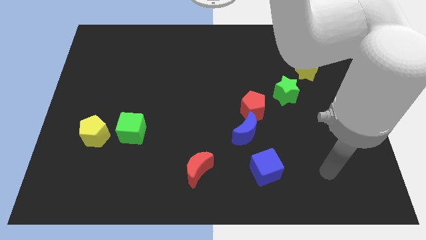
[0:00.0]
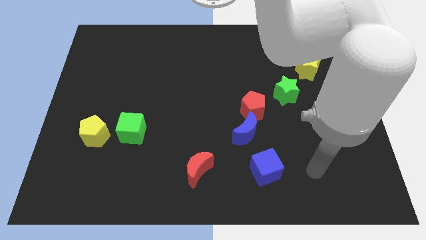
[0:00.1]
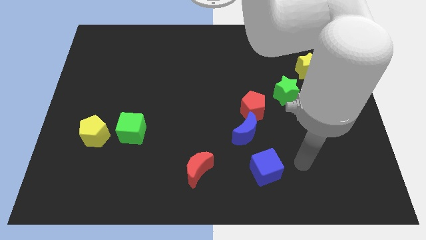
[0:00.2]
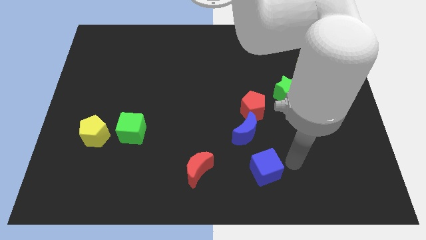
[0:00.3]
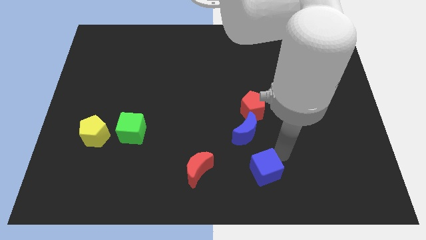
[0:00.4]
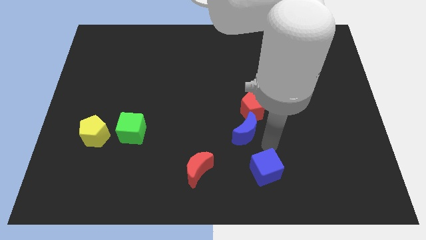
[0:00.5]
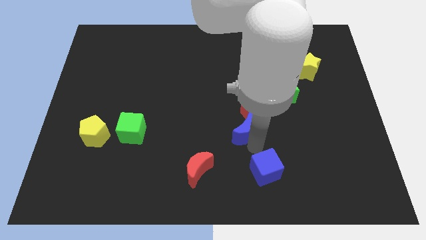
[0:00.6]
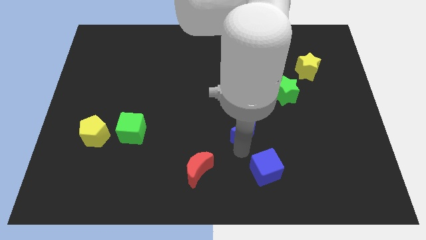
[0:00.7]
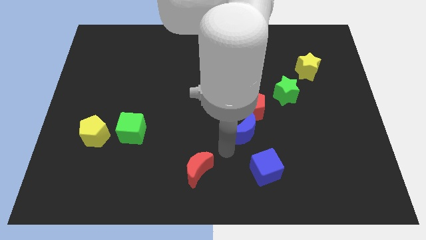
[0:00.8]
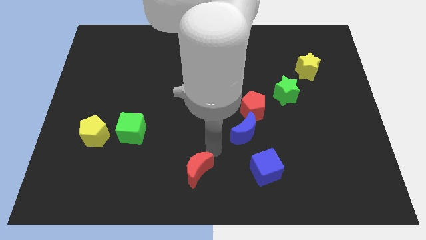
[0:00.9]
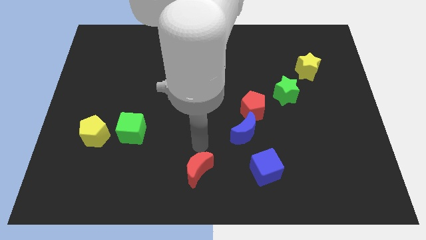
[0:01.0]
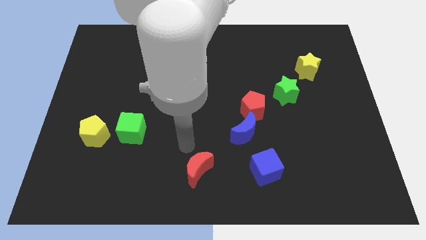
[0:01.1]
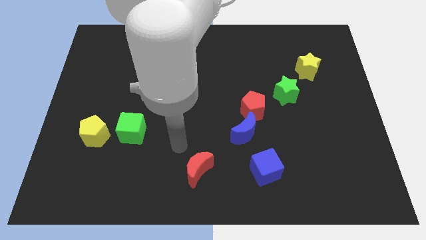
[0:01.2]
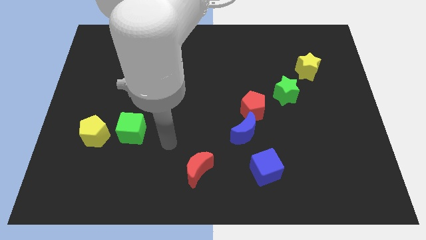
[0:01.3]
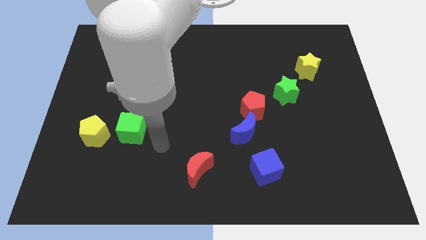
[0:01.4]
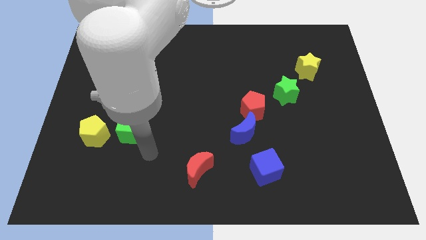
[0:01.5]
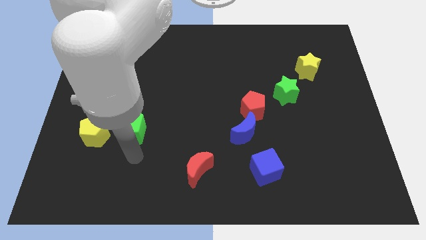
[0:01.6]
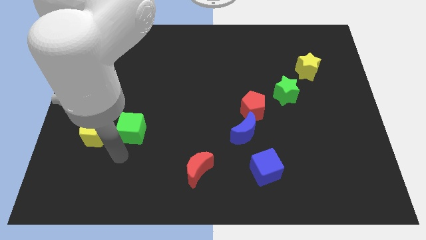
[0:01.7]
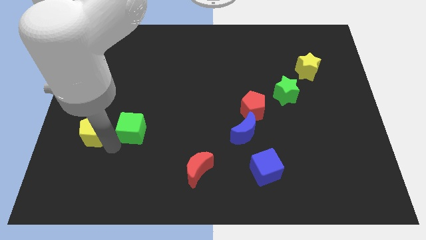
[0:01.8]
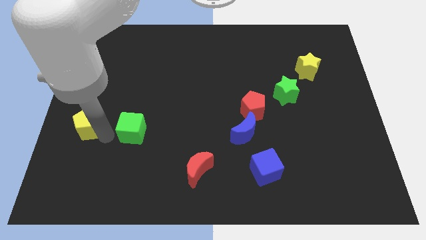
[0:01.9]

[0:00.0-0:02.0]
pull the green cube apart from the yellow pentagon

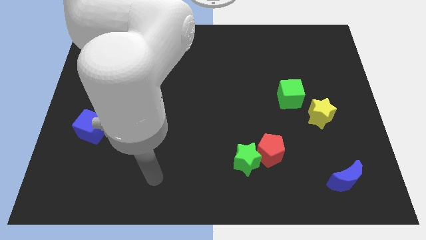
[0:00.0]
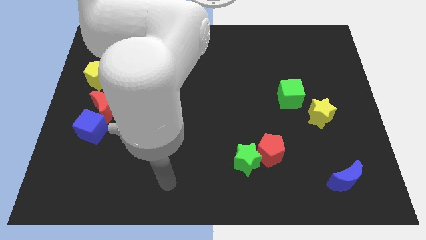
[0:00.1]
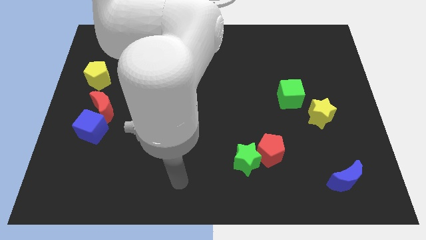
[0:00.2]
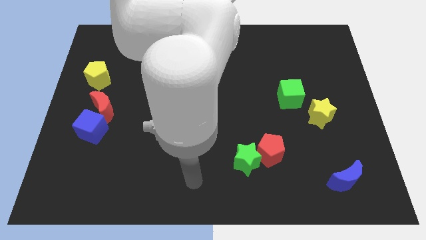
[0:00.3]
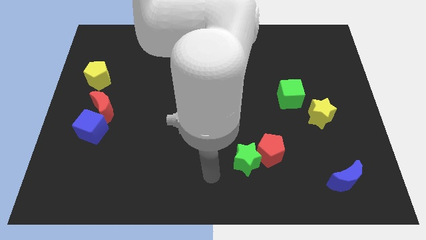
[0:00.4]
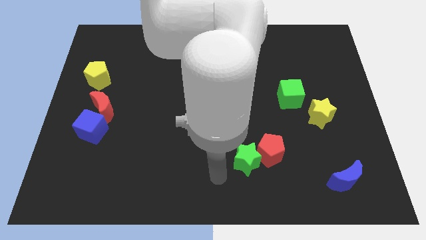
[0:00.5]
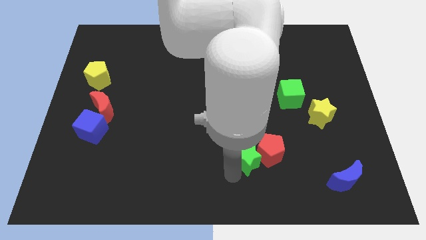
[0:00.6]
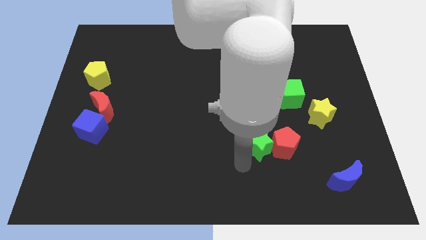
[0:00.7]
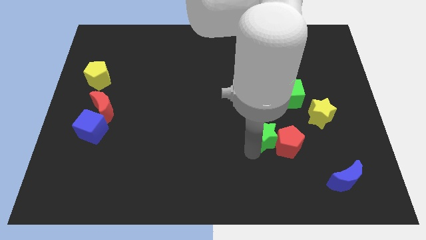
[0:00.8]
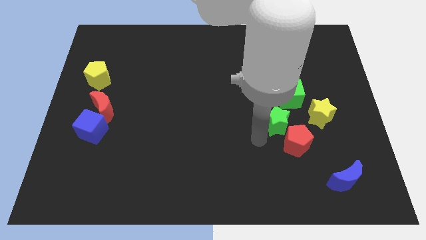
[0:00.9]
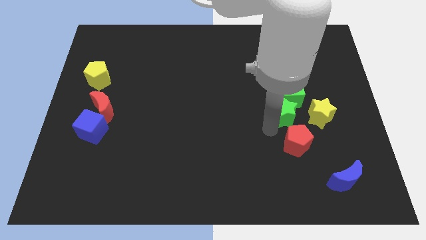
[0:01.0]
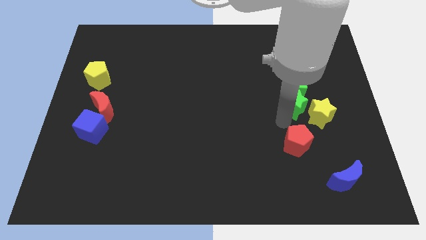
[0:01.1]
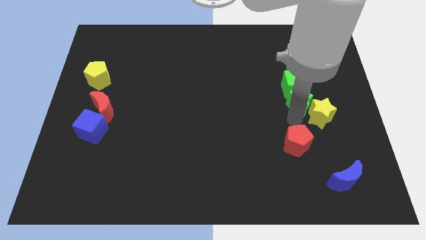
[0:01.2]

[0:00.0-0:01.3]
separate the red pentagon from the green star

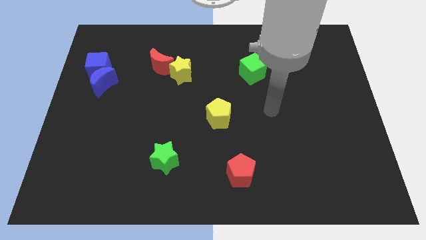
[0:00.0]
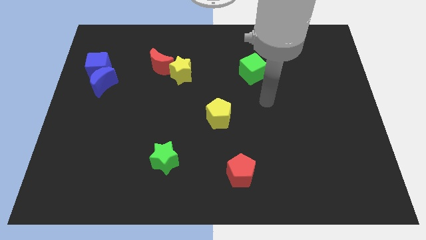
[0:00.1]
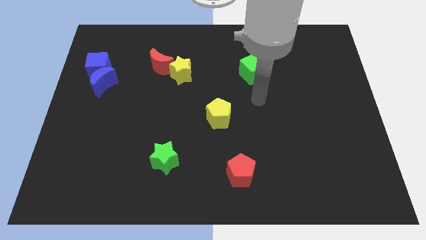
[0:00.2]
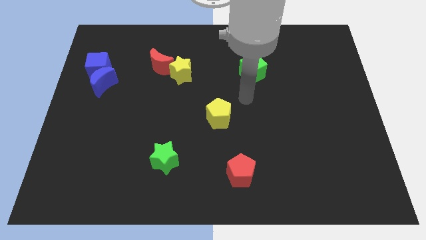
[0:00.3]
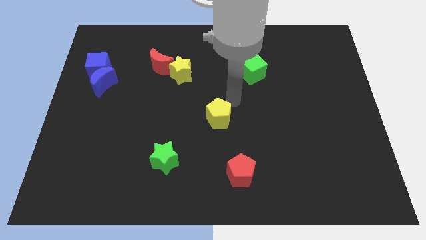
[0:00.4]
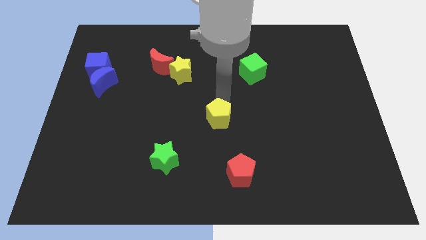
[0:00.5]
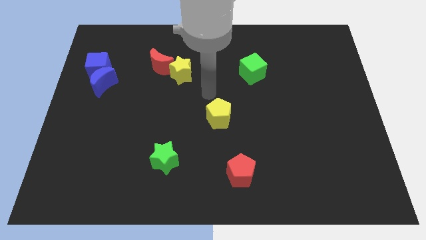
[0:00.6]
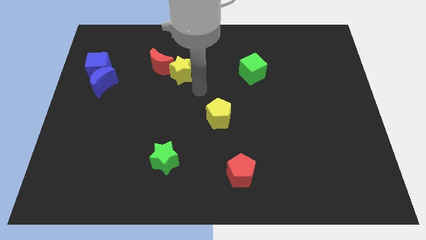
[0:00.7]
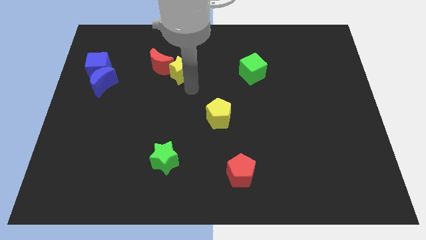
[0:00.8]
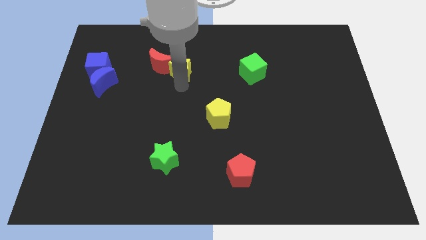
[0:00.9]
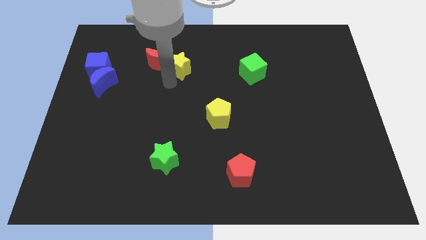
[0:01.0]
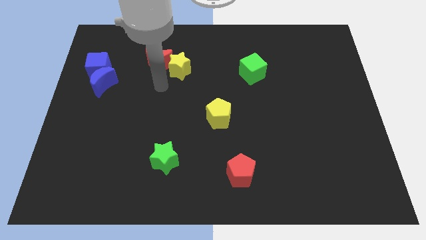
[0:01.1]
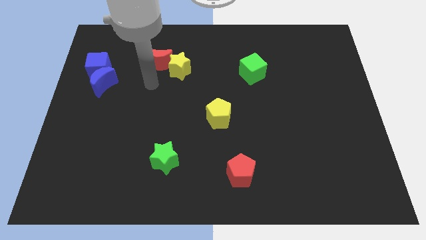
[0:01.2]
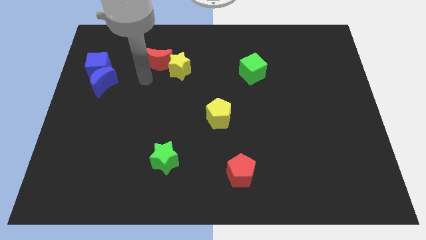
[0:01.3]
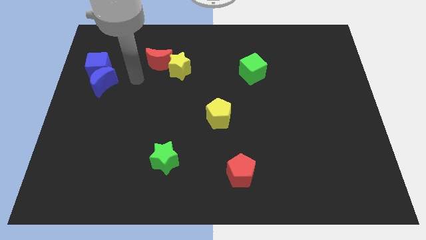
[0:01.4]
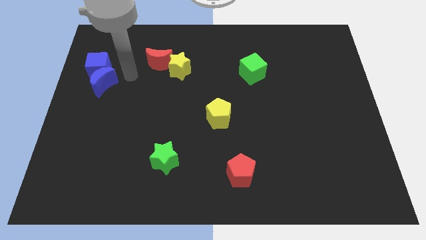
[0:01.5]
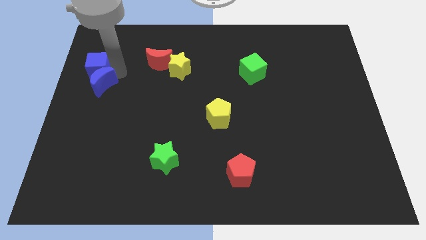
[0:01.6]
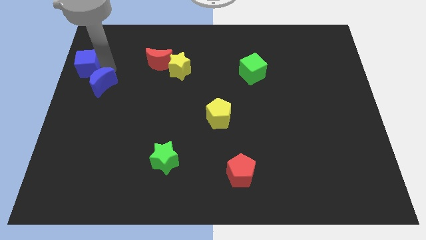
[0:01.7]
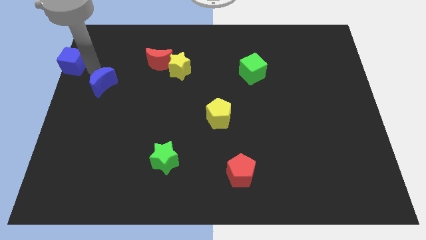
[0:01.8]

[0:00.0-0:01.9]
move the blue moon away from the blue cube

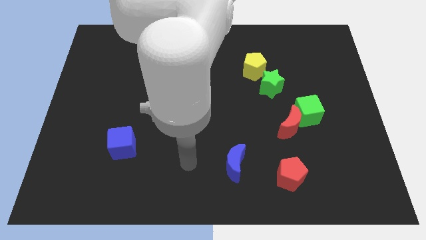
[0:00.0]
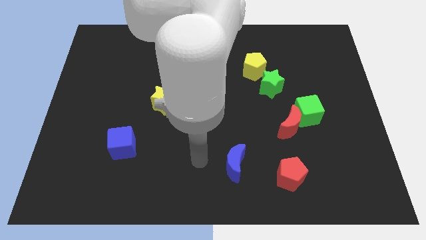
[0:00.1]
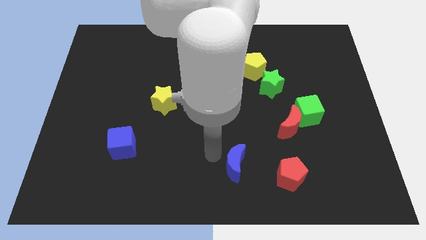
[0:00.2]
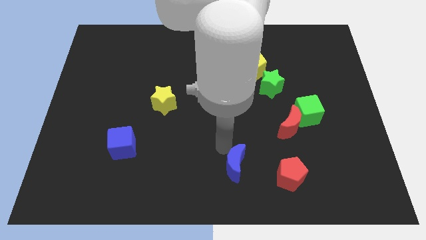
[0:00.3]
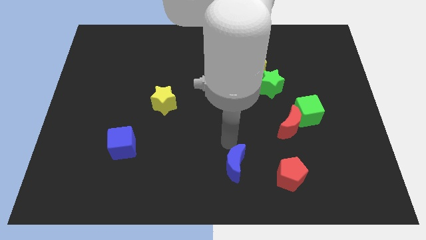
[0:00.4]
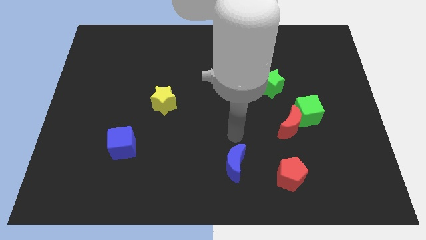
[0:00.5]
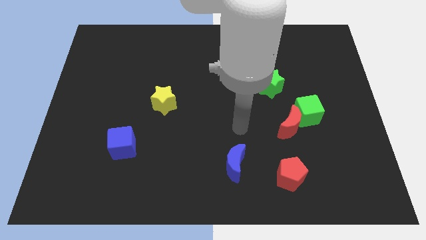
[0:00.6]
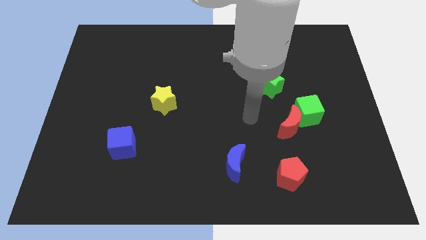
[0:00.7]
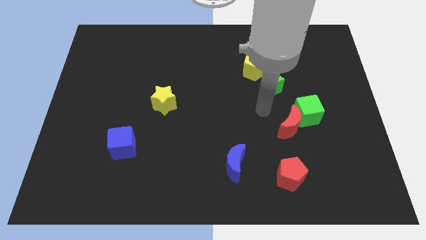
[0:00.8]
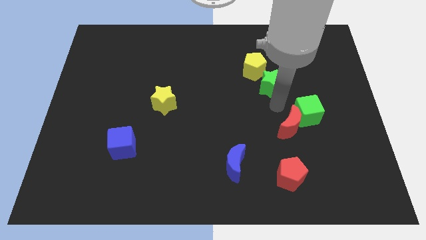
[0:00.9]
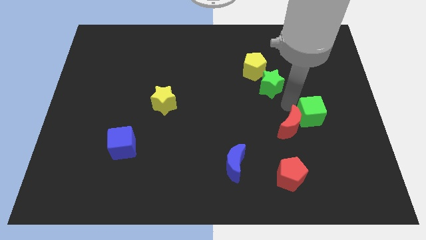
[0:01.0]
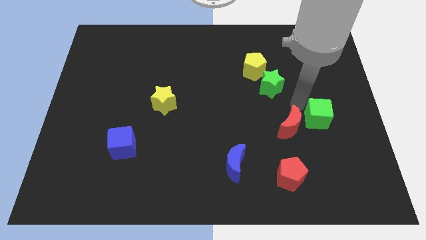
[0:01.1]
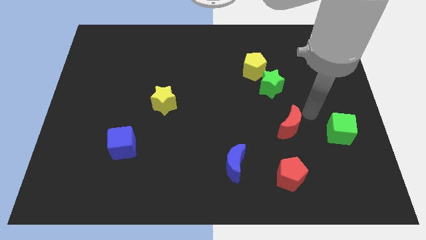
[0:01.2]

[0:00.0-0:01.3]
move the red moon away from the green cube

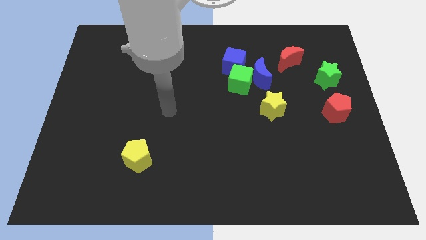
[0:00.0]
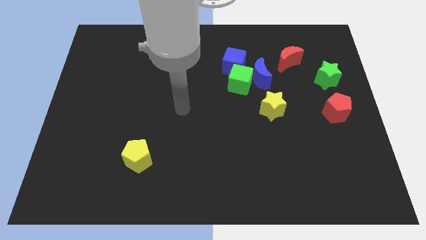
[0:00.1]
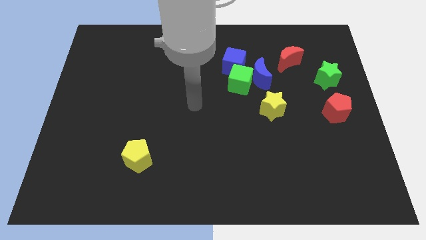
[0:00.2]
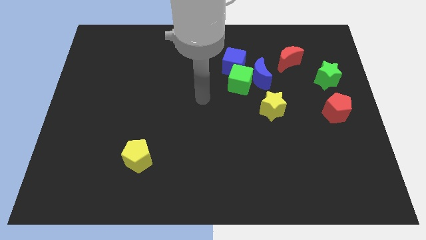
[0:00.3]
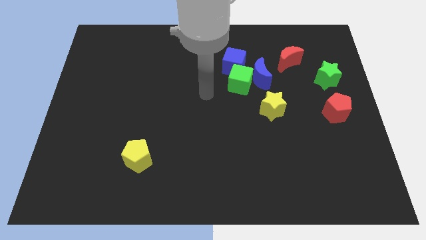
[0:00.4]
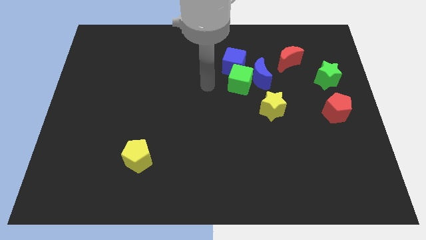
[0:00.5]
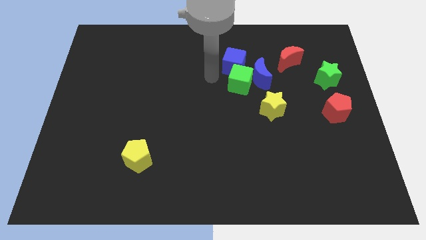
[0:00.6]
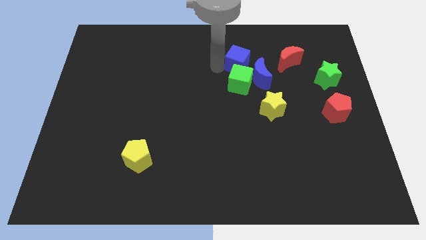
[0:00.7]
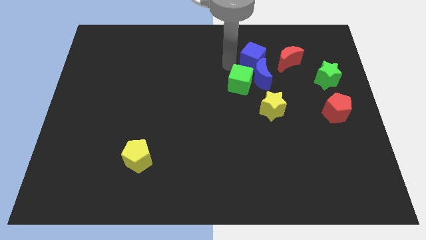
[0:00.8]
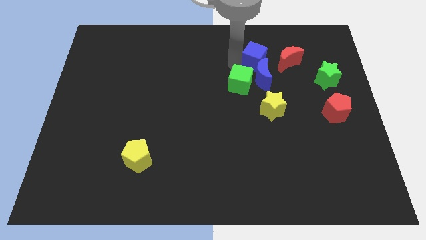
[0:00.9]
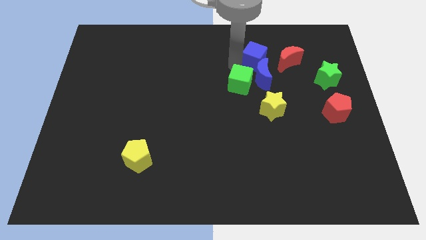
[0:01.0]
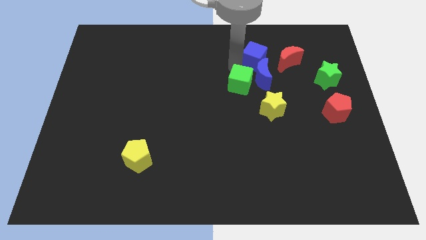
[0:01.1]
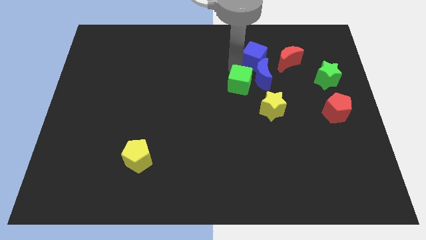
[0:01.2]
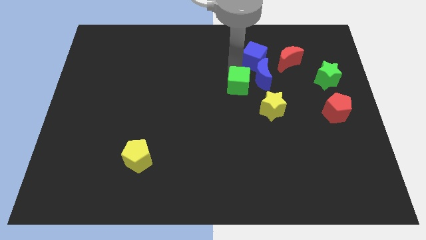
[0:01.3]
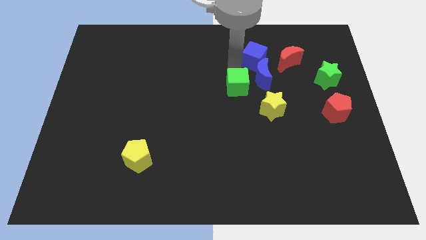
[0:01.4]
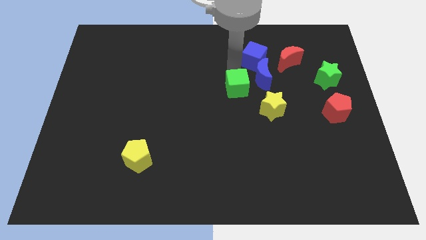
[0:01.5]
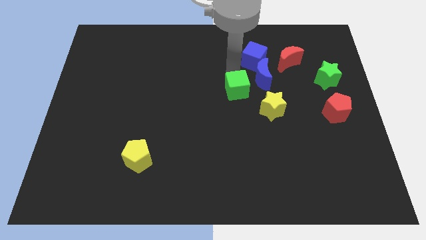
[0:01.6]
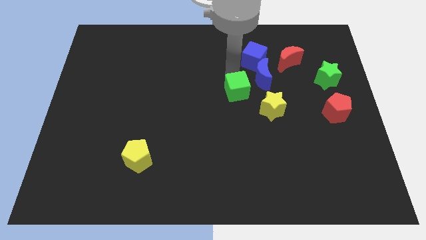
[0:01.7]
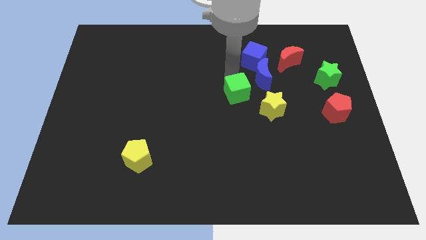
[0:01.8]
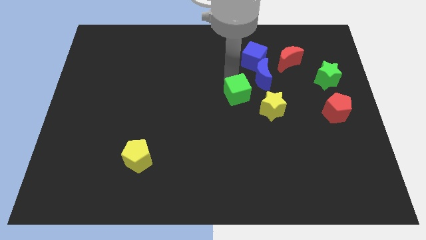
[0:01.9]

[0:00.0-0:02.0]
separate the green cube from the blue moon and blue cube

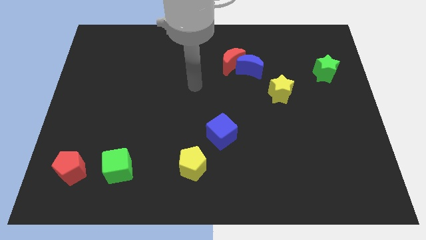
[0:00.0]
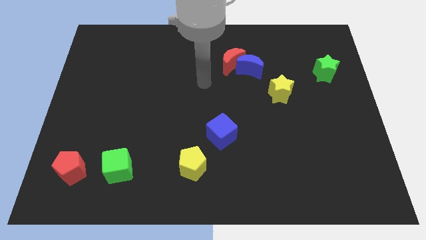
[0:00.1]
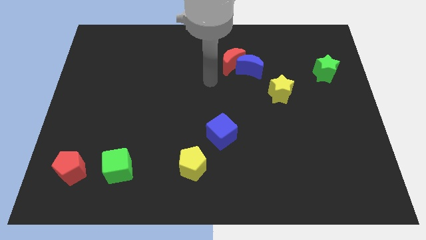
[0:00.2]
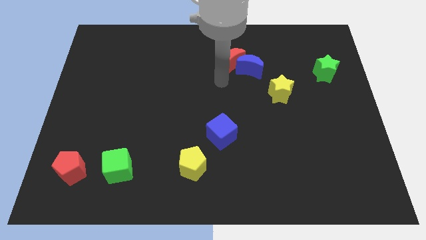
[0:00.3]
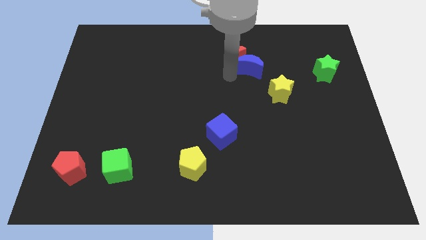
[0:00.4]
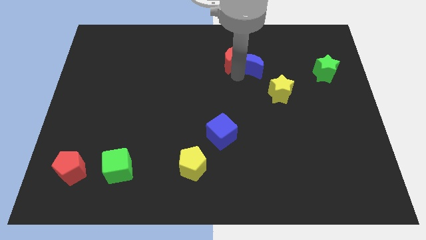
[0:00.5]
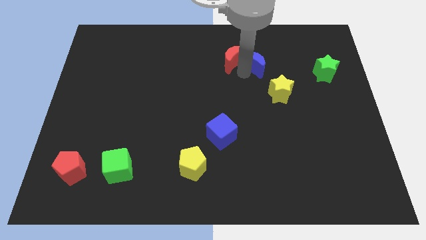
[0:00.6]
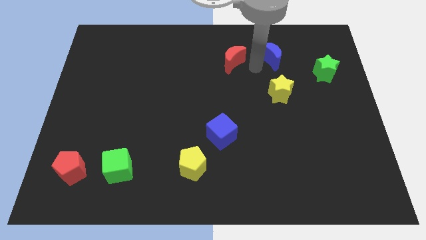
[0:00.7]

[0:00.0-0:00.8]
move the red moon away from the blue moon
